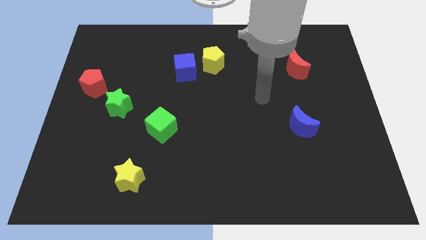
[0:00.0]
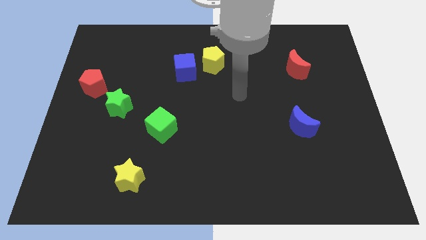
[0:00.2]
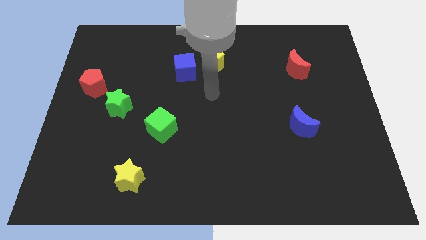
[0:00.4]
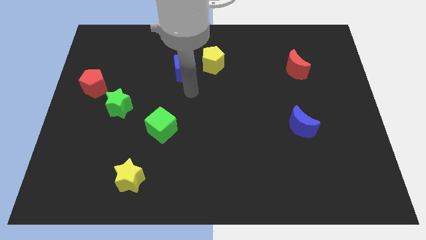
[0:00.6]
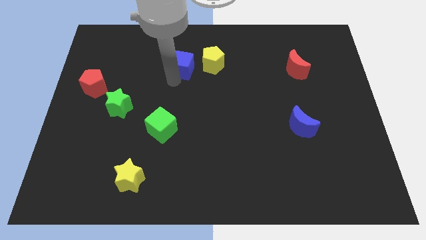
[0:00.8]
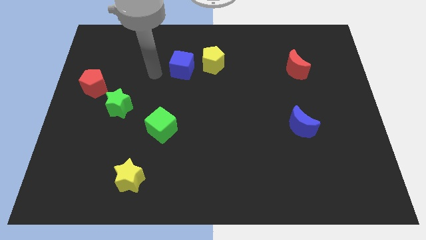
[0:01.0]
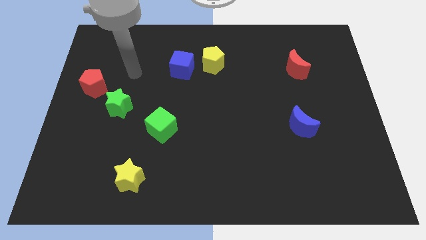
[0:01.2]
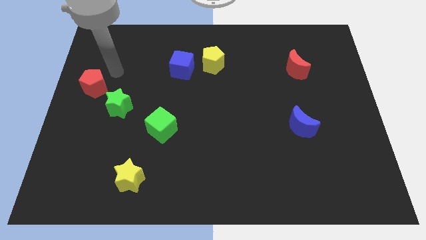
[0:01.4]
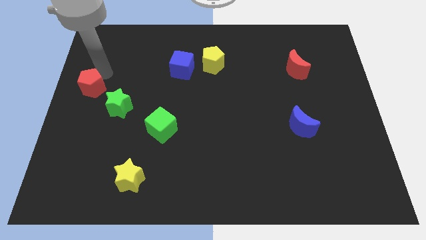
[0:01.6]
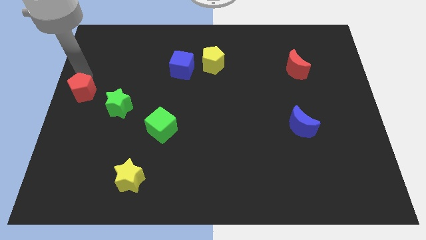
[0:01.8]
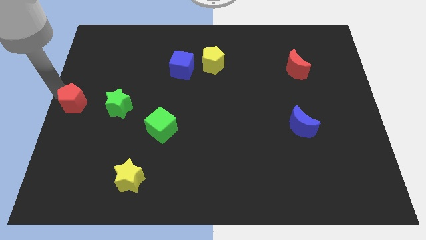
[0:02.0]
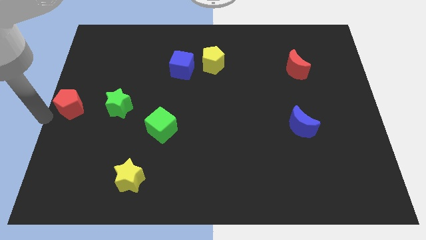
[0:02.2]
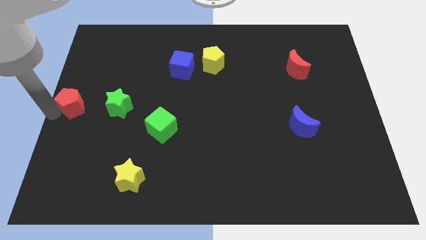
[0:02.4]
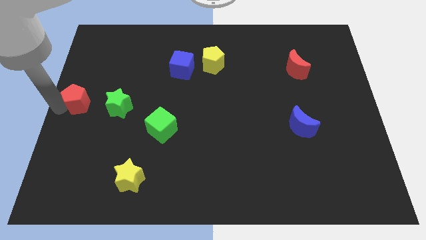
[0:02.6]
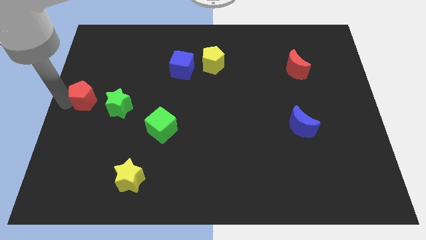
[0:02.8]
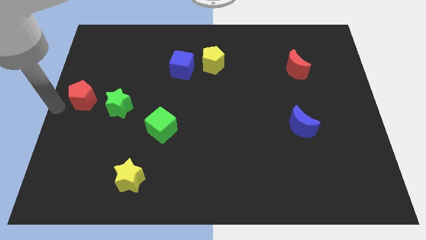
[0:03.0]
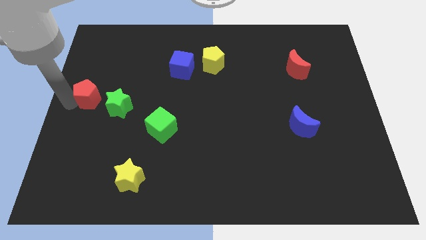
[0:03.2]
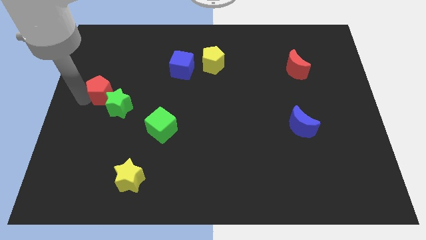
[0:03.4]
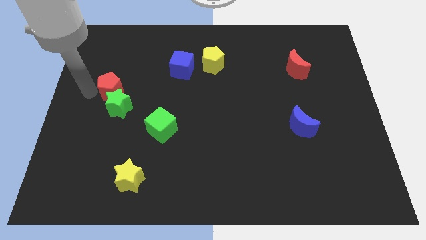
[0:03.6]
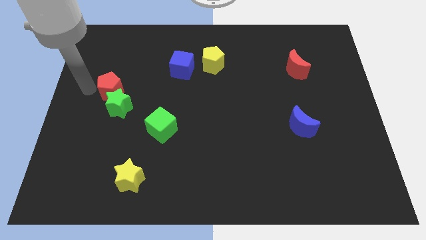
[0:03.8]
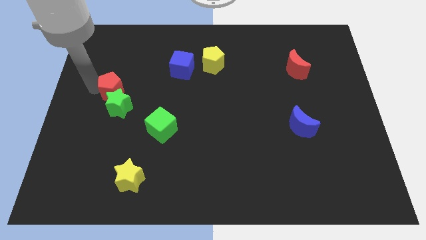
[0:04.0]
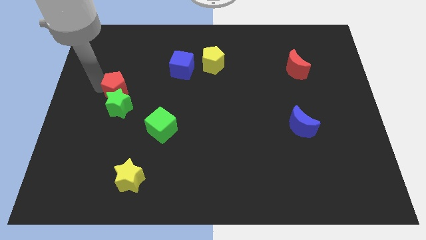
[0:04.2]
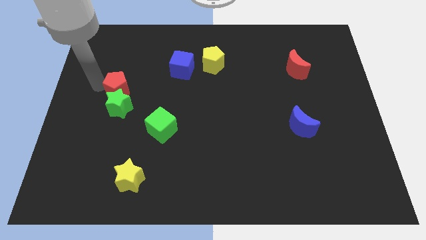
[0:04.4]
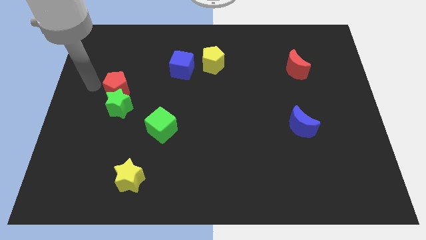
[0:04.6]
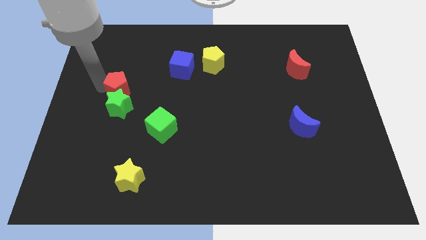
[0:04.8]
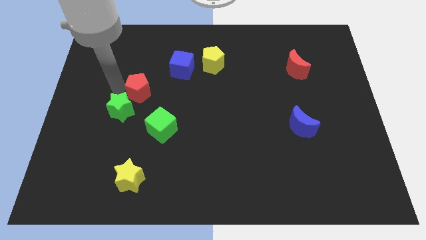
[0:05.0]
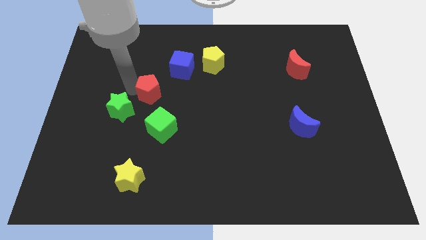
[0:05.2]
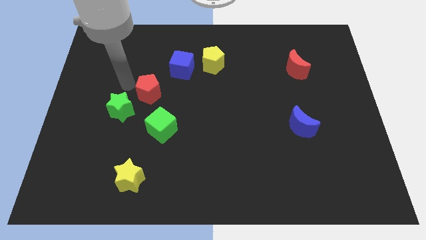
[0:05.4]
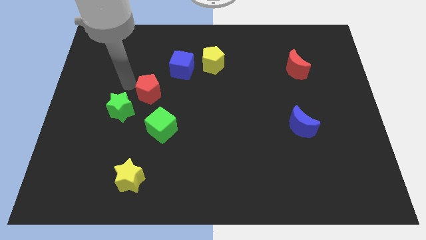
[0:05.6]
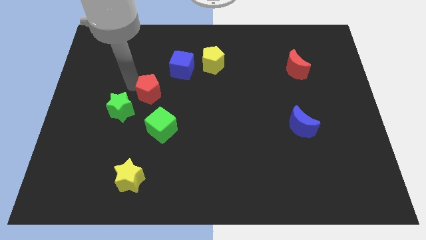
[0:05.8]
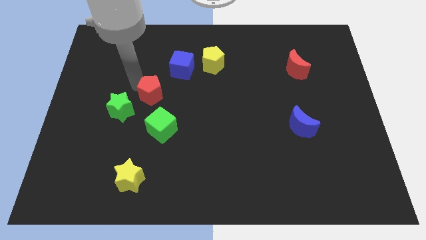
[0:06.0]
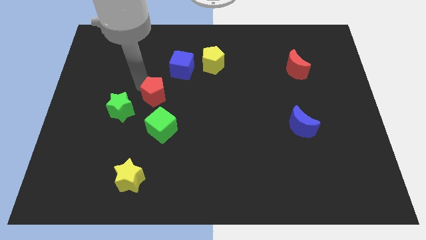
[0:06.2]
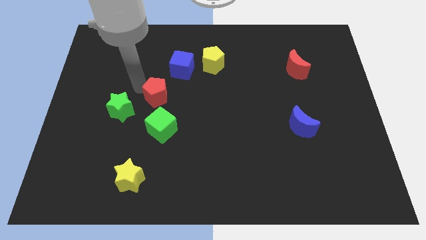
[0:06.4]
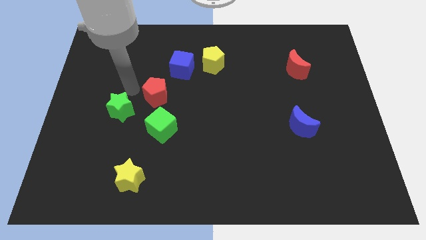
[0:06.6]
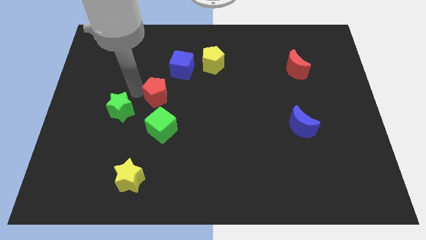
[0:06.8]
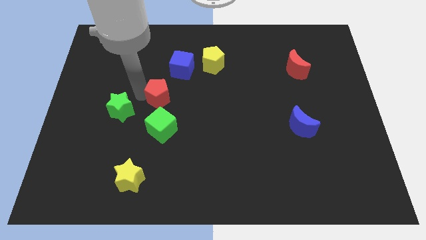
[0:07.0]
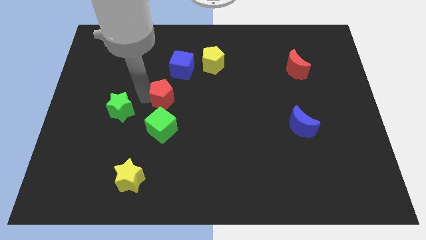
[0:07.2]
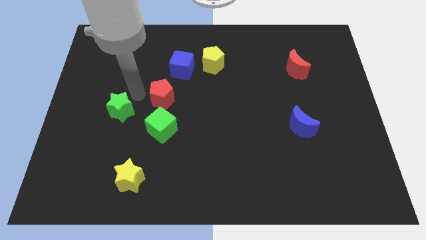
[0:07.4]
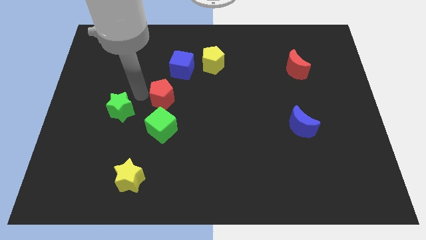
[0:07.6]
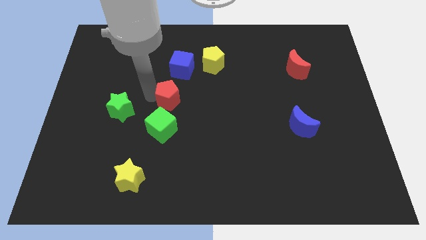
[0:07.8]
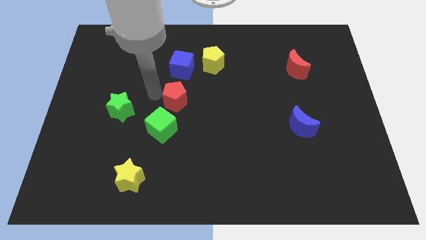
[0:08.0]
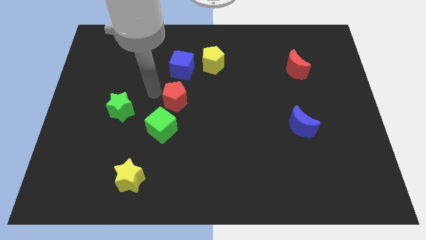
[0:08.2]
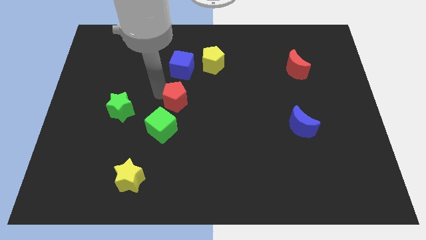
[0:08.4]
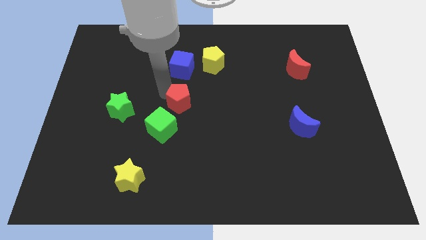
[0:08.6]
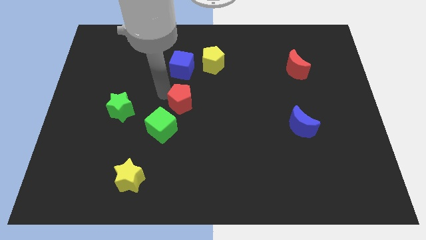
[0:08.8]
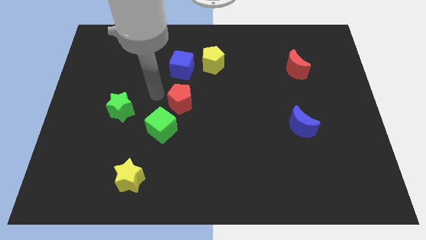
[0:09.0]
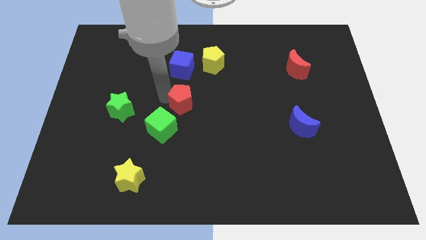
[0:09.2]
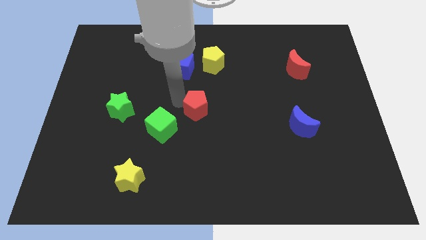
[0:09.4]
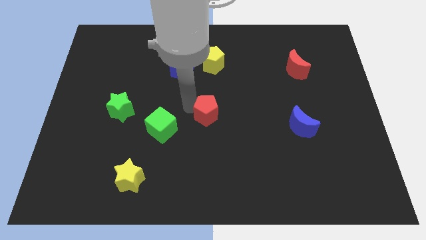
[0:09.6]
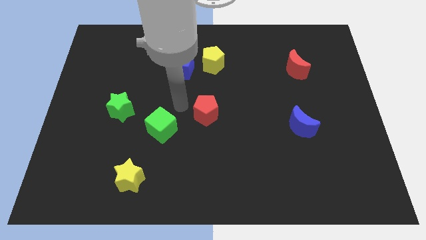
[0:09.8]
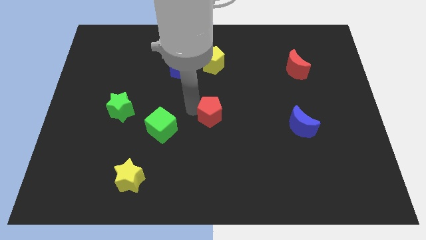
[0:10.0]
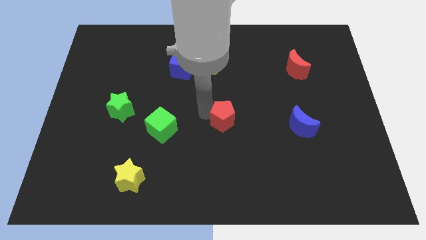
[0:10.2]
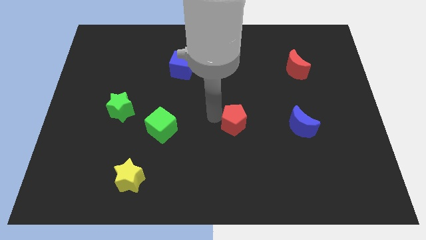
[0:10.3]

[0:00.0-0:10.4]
slide the red pentagon to the left side of the blue moon

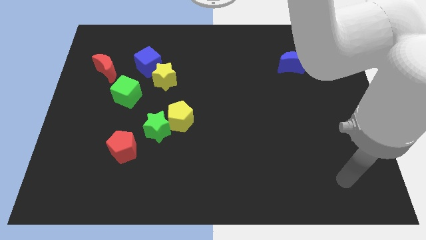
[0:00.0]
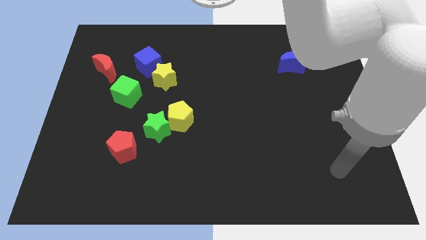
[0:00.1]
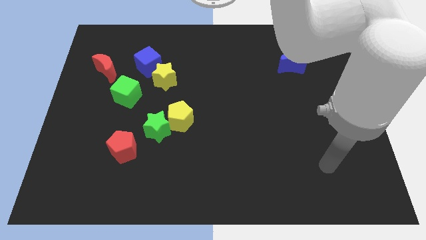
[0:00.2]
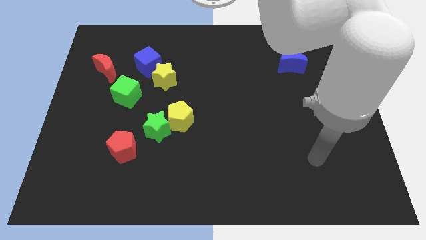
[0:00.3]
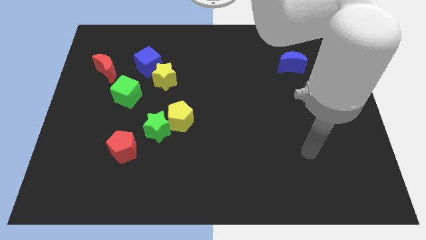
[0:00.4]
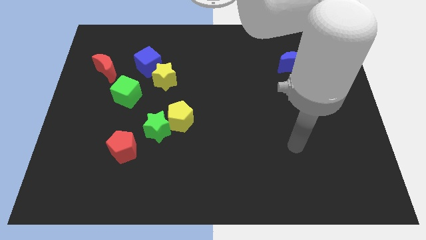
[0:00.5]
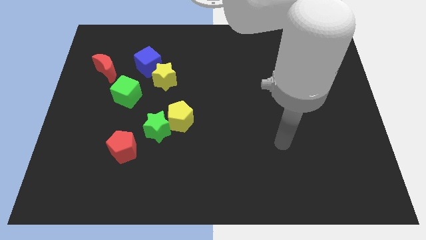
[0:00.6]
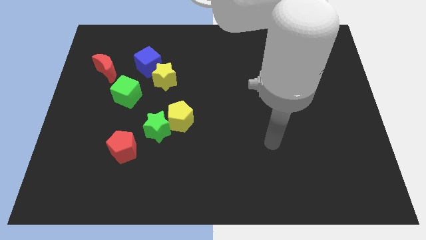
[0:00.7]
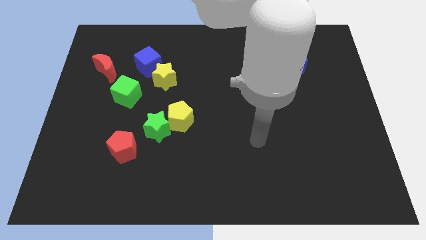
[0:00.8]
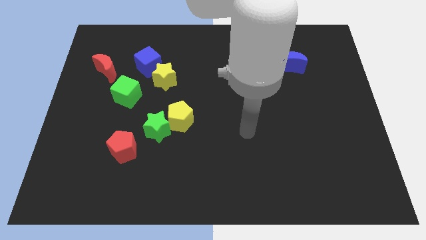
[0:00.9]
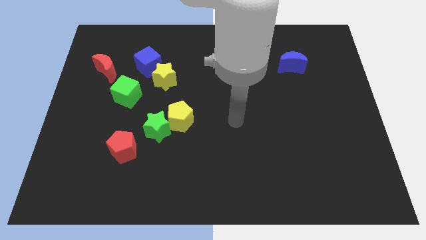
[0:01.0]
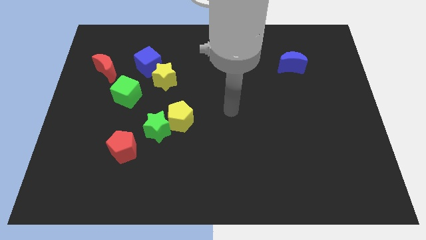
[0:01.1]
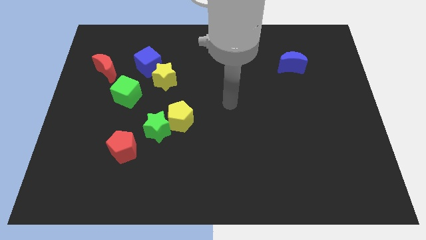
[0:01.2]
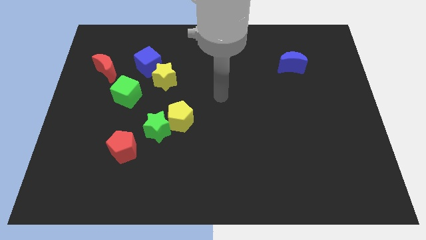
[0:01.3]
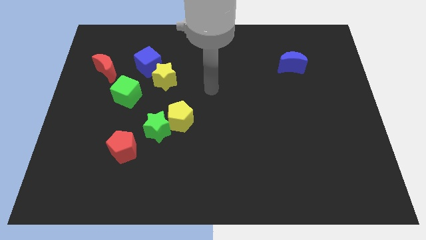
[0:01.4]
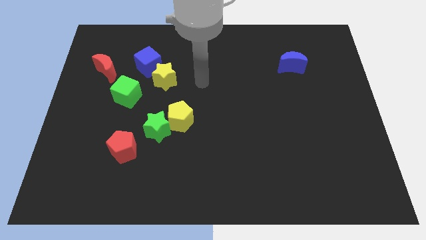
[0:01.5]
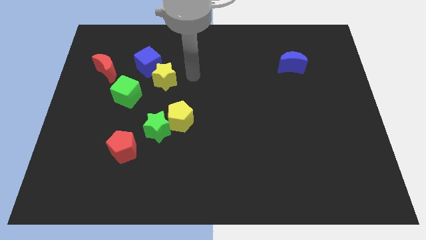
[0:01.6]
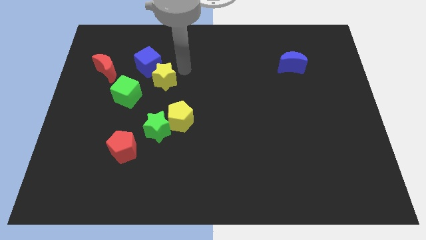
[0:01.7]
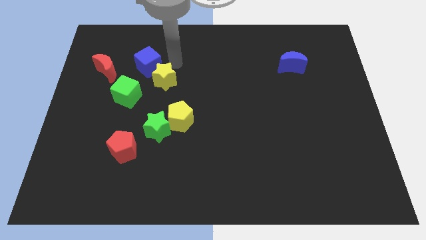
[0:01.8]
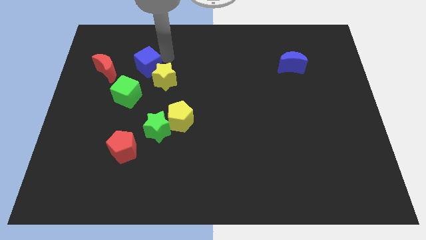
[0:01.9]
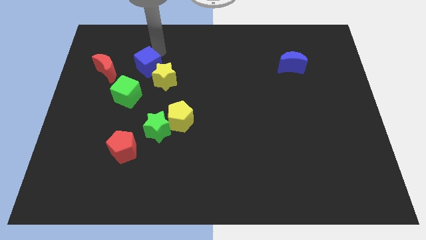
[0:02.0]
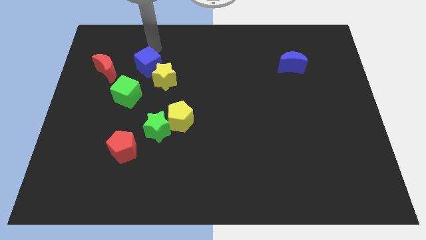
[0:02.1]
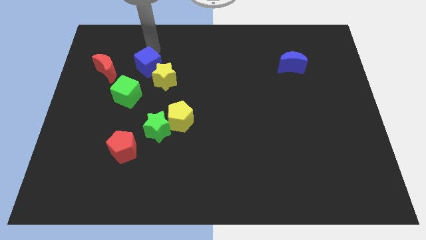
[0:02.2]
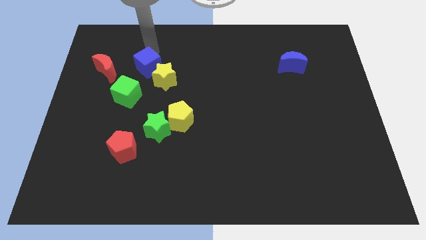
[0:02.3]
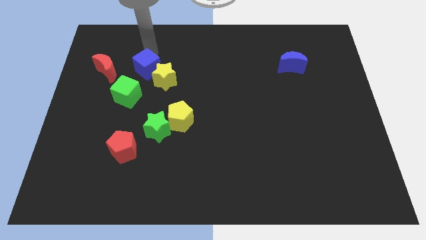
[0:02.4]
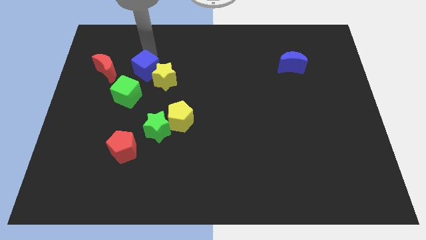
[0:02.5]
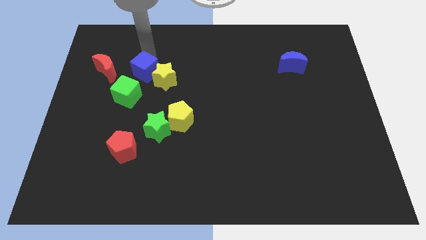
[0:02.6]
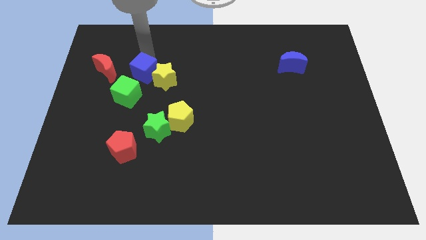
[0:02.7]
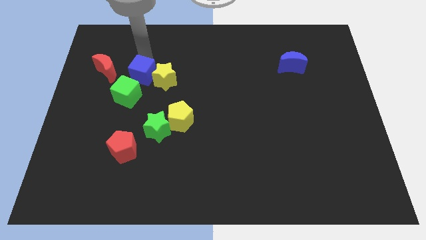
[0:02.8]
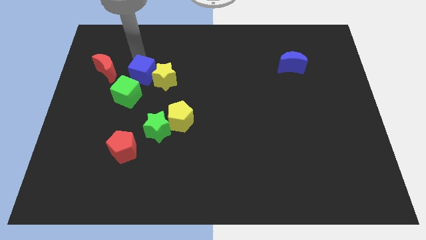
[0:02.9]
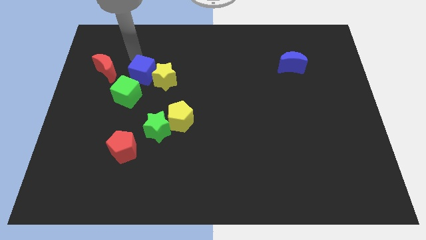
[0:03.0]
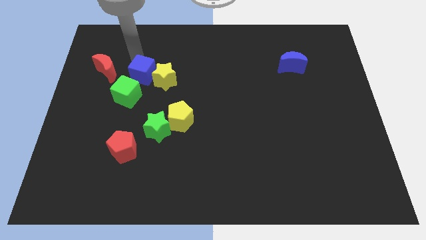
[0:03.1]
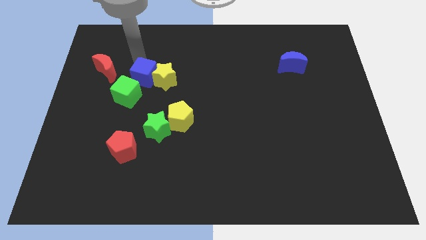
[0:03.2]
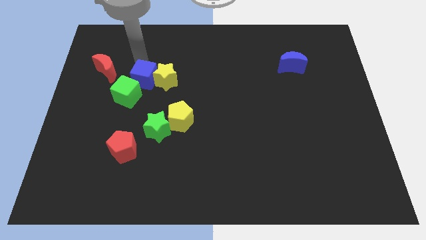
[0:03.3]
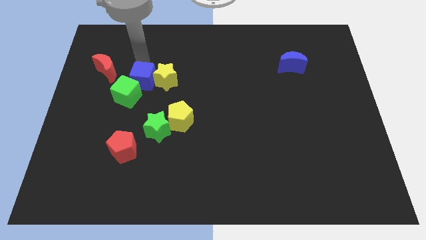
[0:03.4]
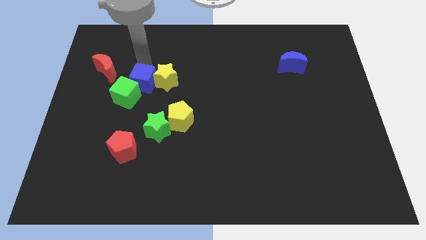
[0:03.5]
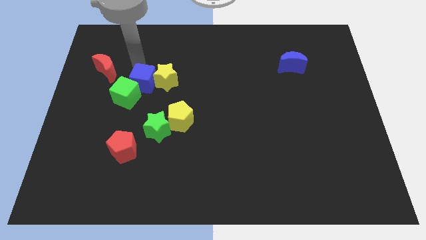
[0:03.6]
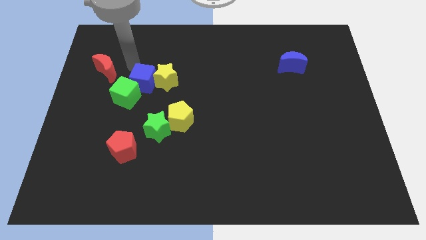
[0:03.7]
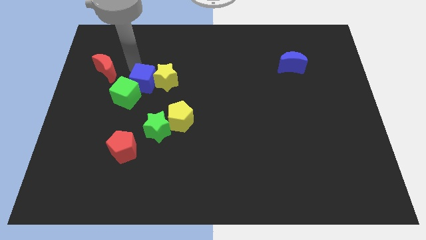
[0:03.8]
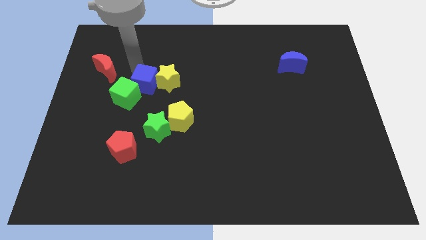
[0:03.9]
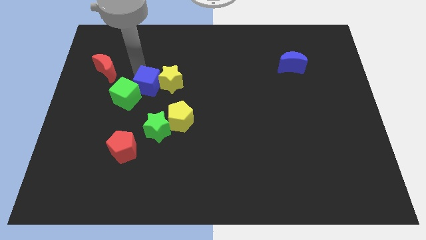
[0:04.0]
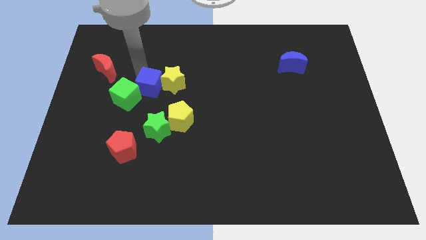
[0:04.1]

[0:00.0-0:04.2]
move the blue cube to the top left of the yellow pentagon
